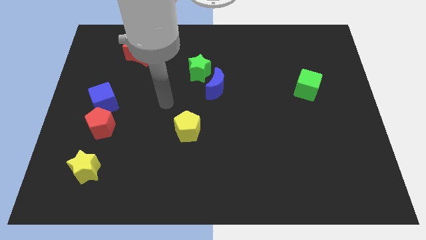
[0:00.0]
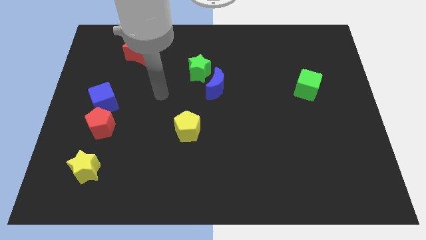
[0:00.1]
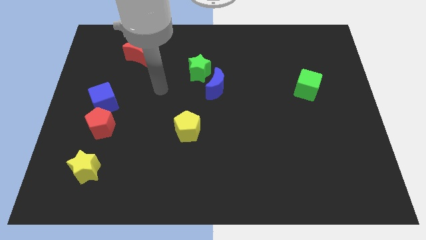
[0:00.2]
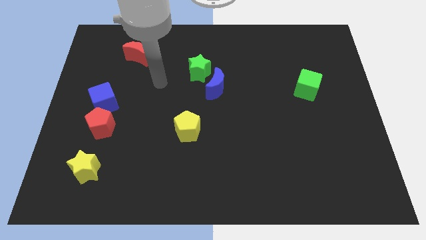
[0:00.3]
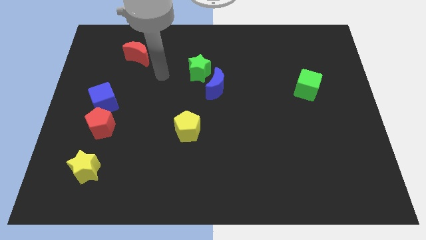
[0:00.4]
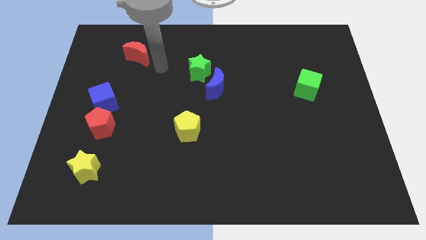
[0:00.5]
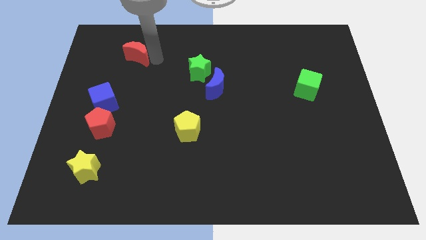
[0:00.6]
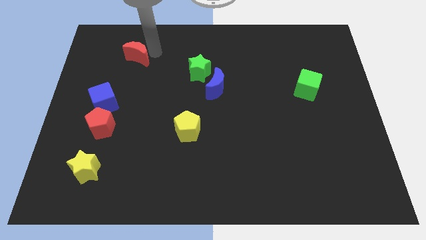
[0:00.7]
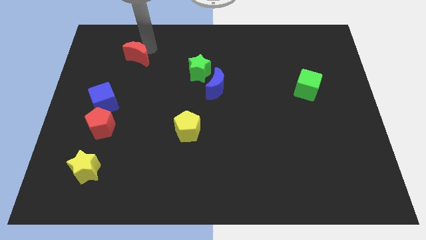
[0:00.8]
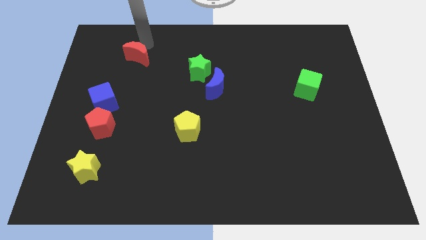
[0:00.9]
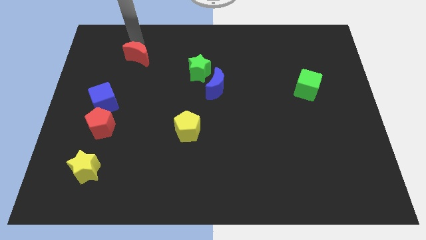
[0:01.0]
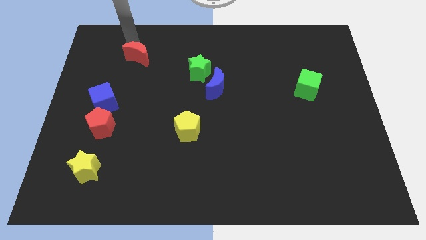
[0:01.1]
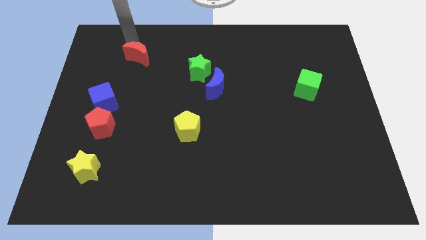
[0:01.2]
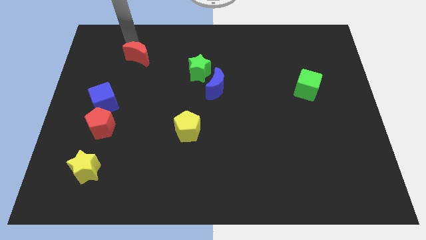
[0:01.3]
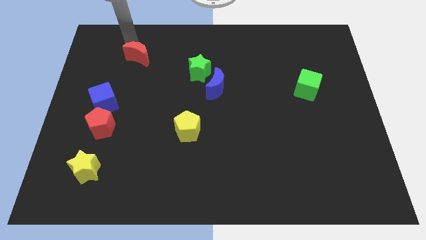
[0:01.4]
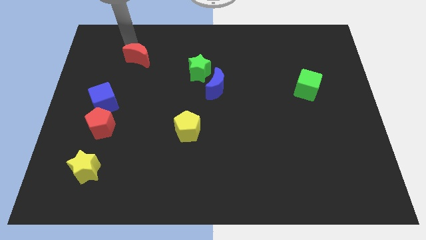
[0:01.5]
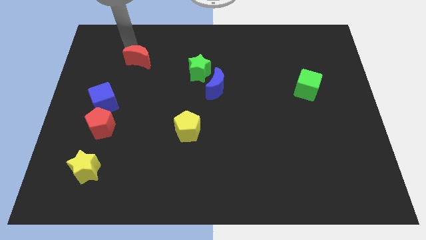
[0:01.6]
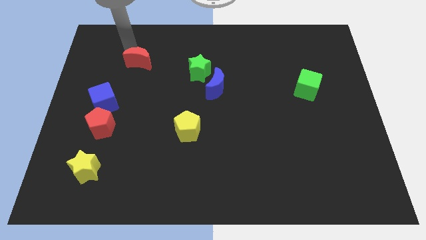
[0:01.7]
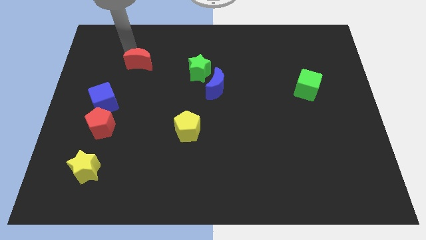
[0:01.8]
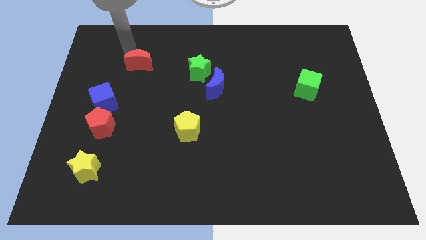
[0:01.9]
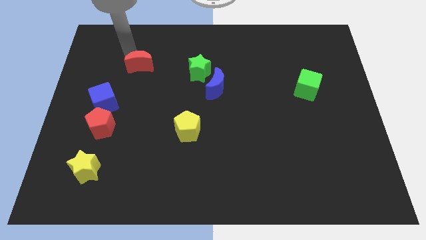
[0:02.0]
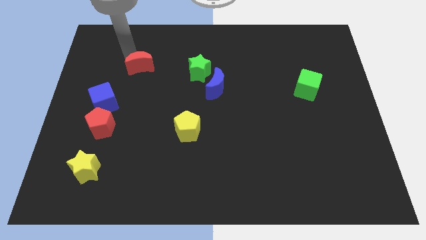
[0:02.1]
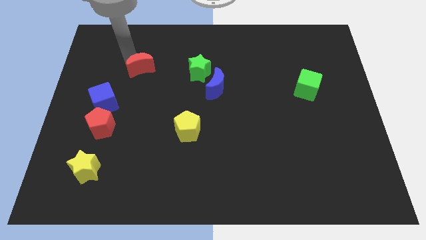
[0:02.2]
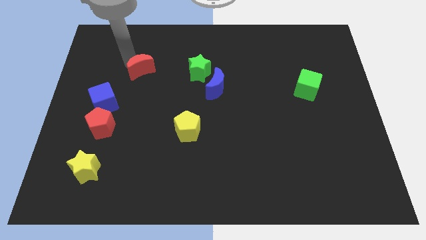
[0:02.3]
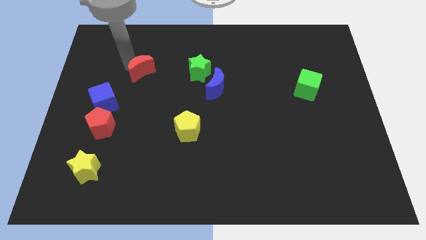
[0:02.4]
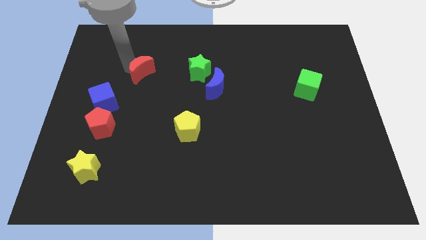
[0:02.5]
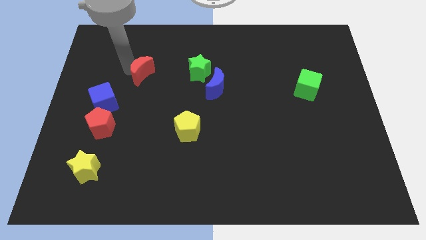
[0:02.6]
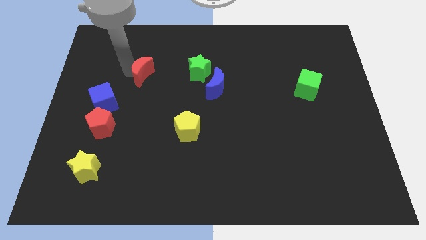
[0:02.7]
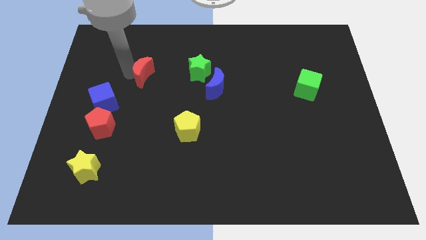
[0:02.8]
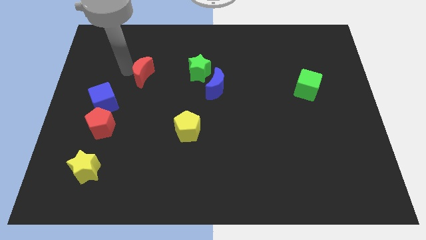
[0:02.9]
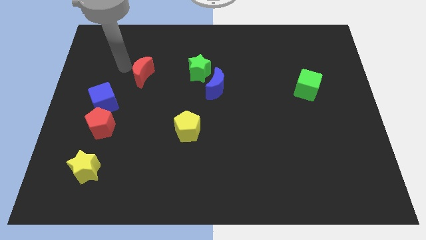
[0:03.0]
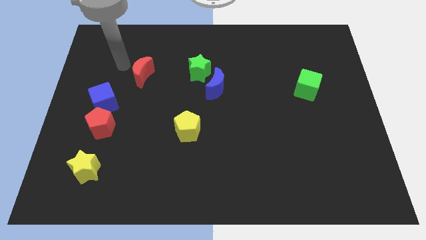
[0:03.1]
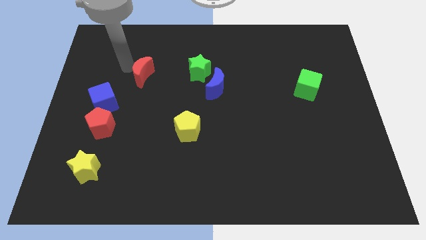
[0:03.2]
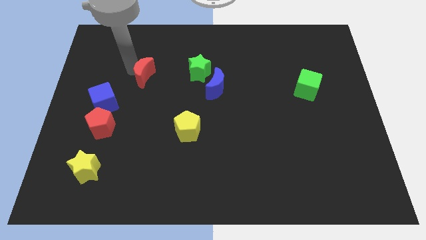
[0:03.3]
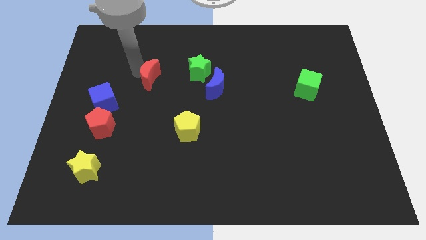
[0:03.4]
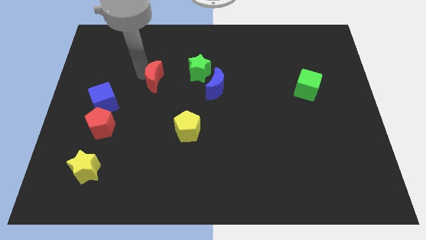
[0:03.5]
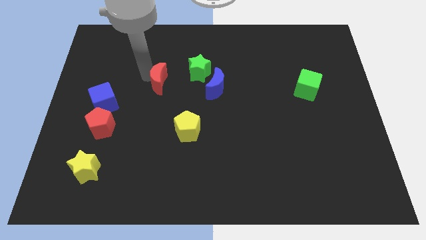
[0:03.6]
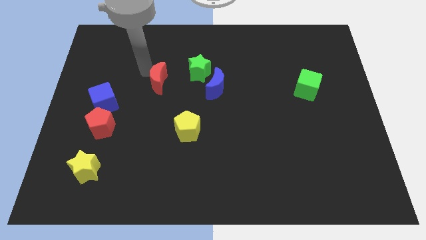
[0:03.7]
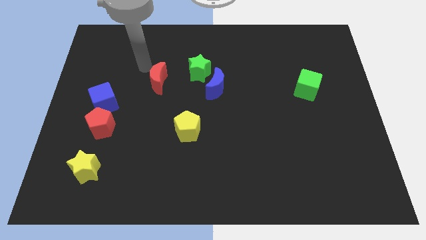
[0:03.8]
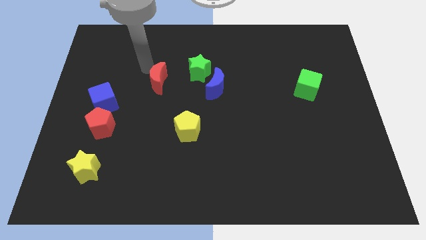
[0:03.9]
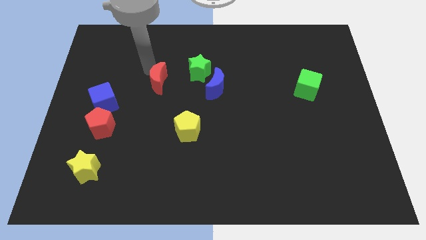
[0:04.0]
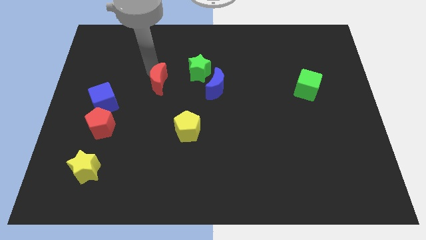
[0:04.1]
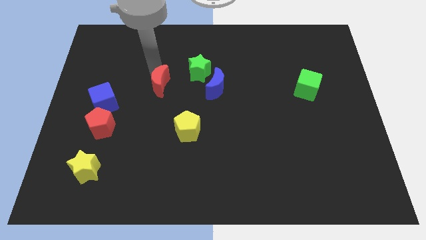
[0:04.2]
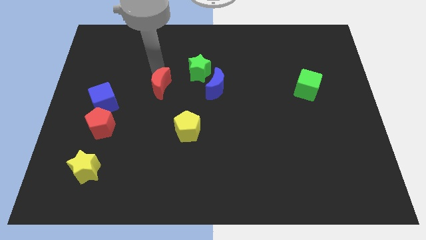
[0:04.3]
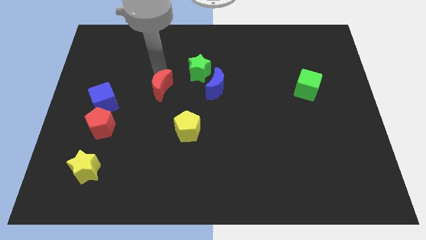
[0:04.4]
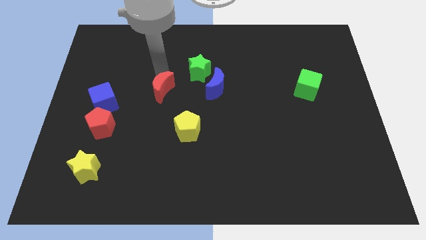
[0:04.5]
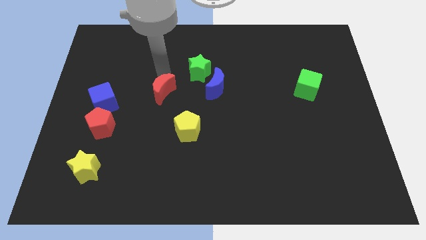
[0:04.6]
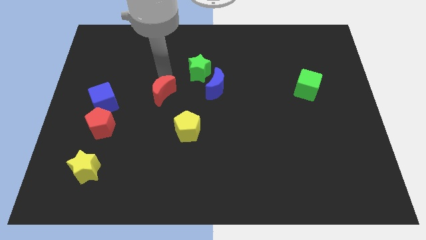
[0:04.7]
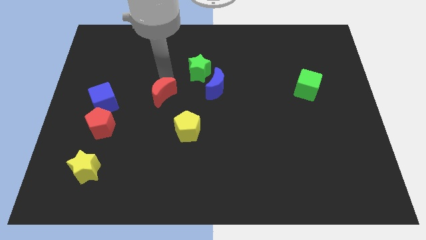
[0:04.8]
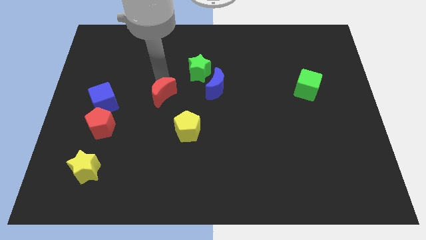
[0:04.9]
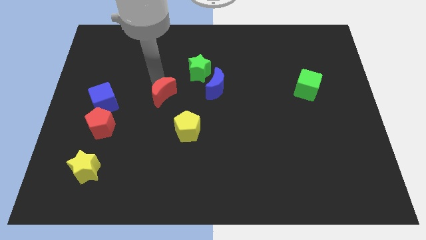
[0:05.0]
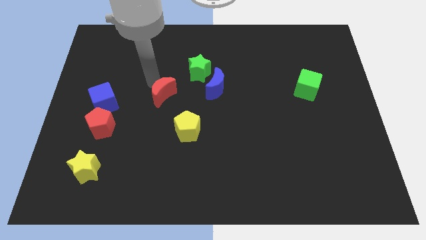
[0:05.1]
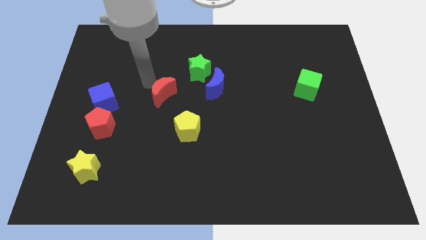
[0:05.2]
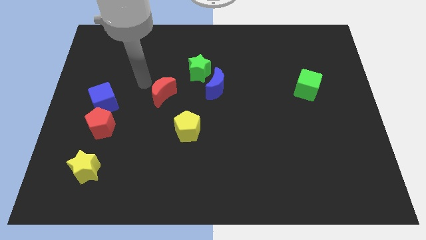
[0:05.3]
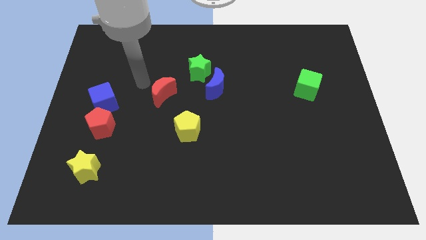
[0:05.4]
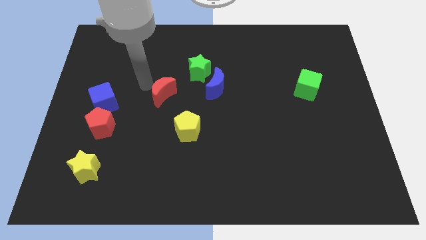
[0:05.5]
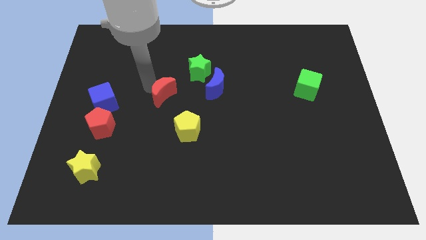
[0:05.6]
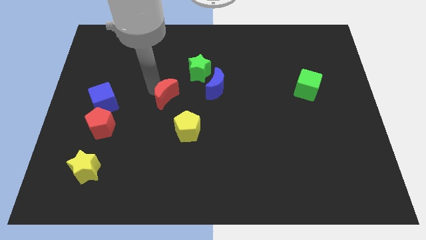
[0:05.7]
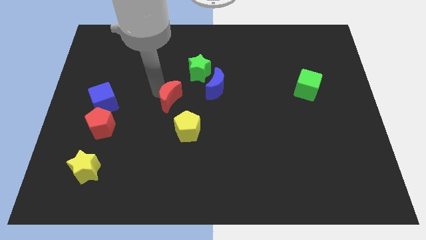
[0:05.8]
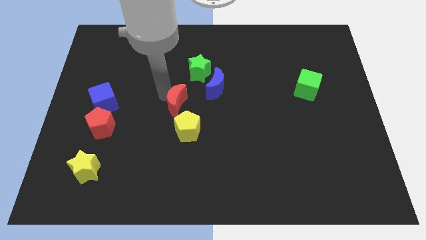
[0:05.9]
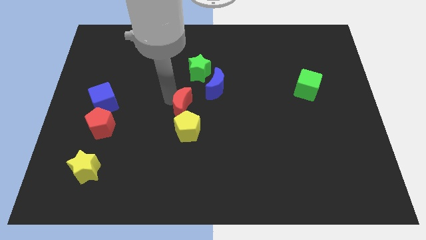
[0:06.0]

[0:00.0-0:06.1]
slide the red moon down and right diagonally

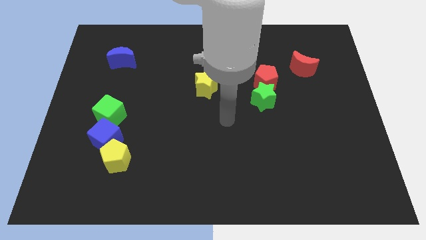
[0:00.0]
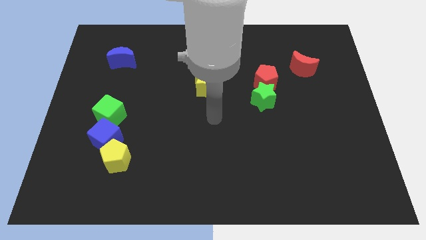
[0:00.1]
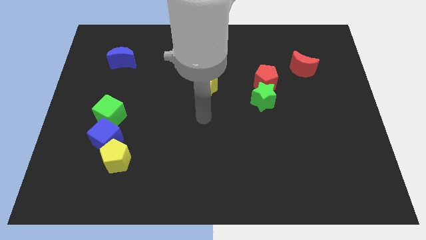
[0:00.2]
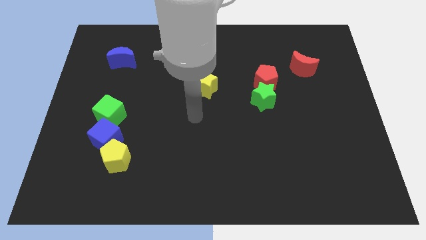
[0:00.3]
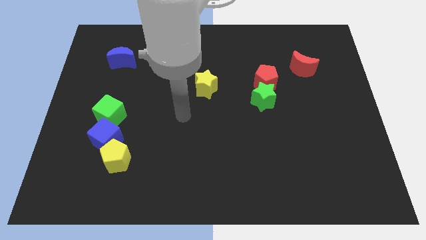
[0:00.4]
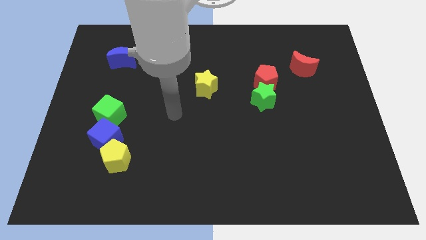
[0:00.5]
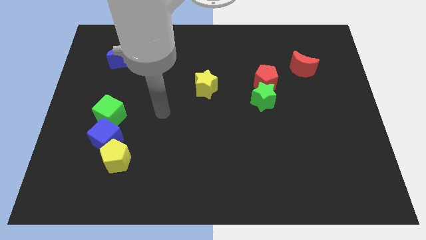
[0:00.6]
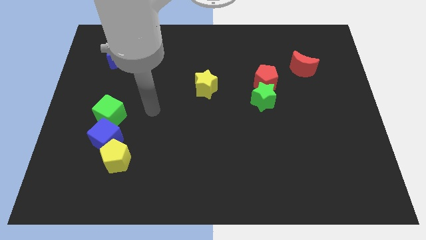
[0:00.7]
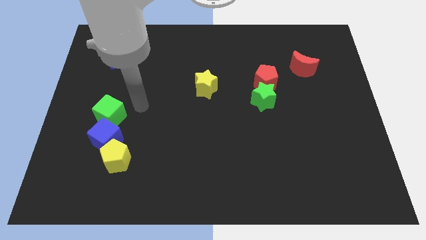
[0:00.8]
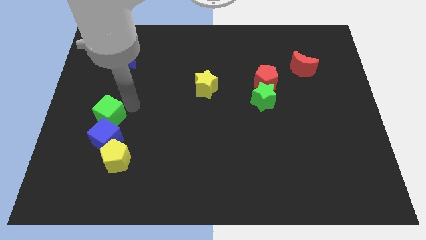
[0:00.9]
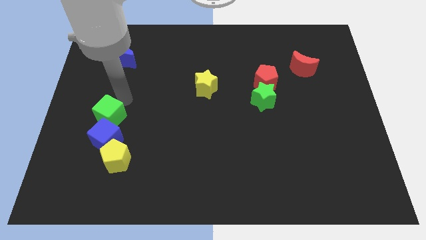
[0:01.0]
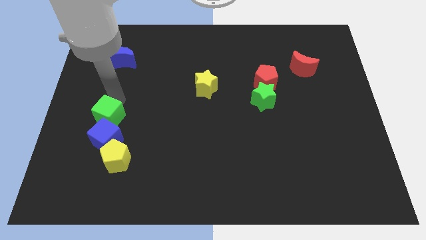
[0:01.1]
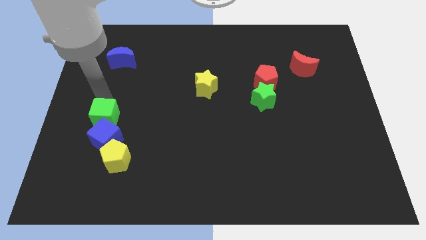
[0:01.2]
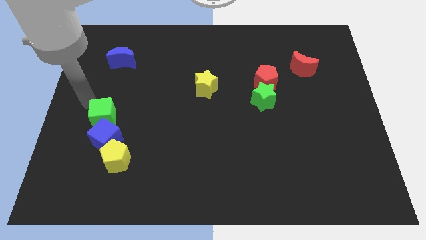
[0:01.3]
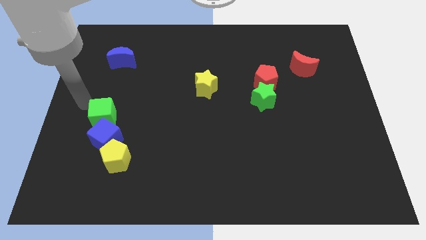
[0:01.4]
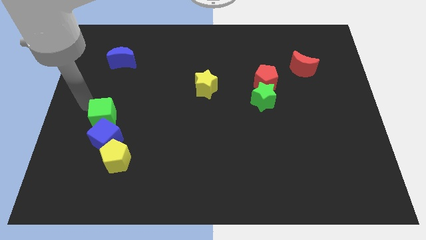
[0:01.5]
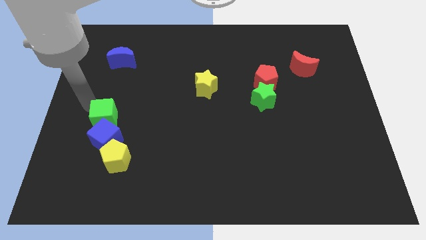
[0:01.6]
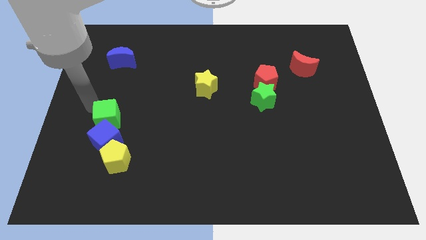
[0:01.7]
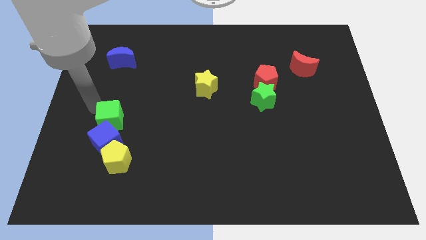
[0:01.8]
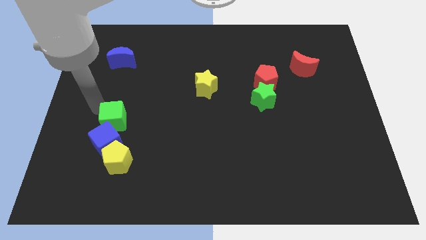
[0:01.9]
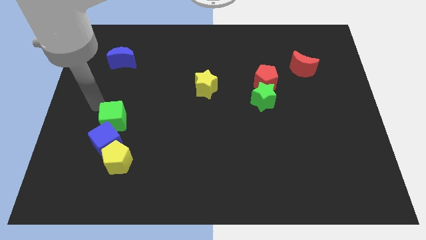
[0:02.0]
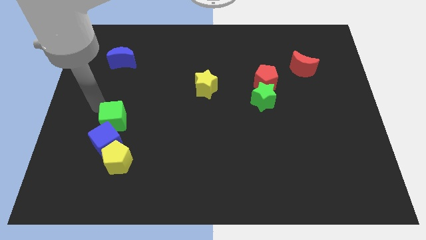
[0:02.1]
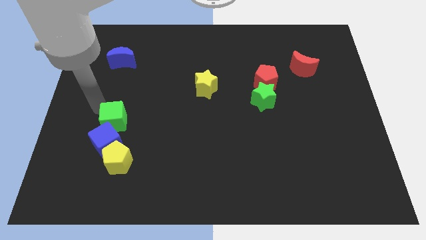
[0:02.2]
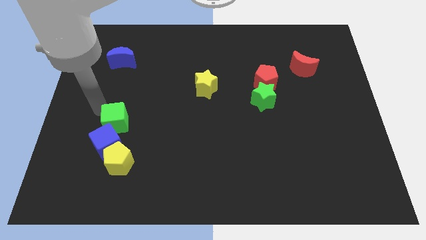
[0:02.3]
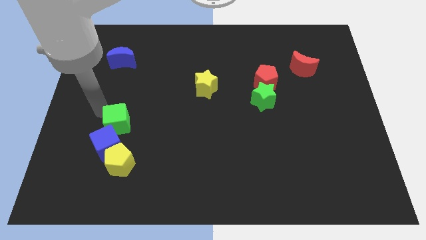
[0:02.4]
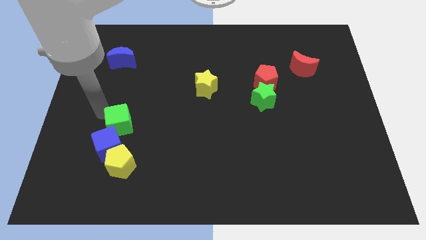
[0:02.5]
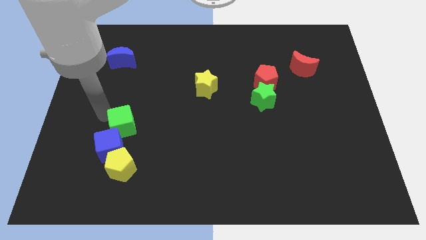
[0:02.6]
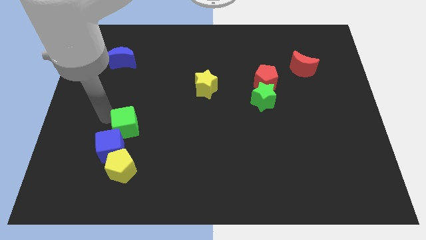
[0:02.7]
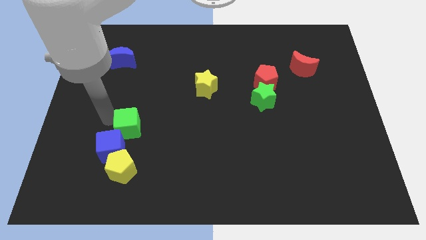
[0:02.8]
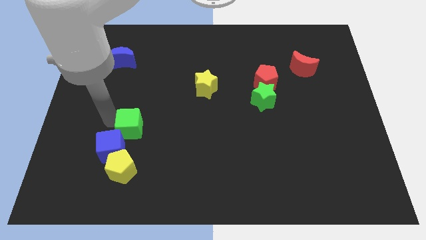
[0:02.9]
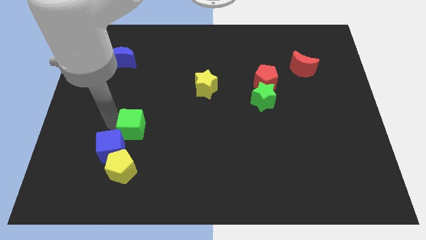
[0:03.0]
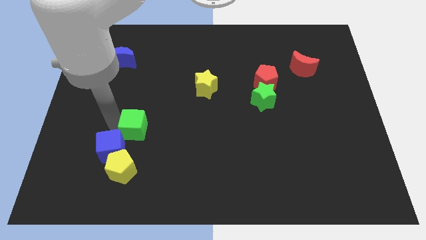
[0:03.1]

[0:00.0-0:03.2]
move the green cube down and then to the right a bit
